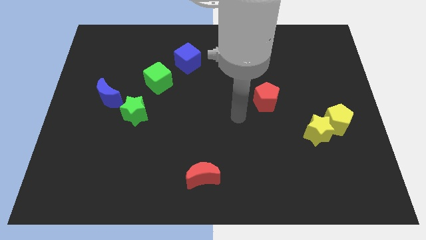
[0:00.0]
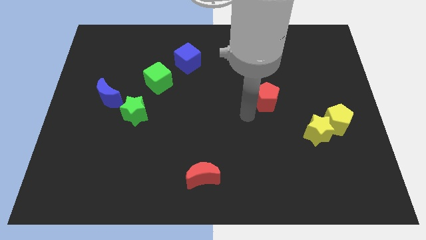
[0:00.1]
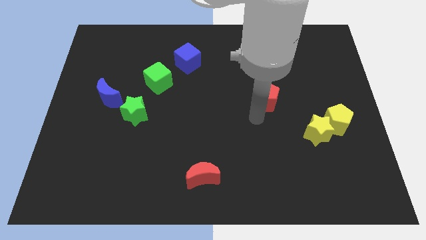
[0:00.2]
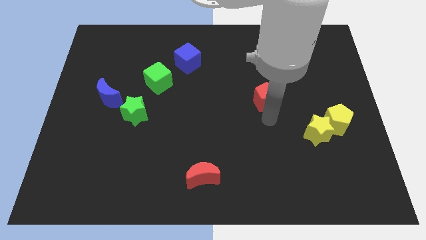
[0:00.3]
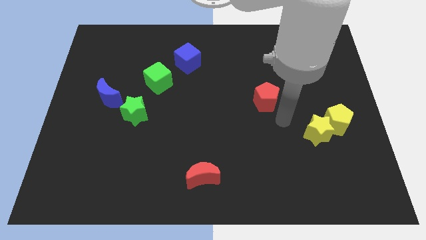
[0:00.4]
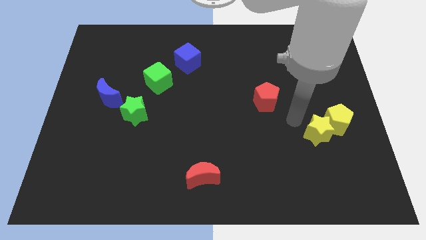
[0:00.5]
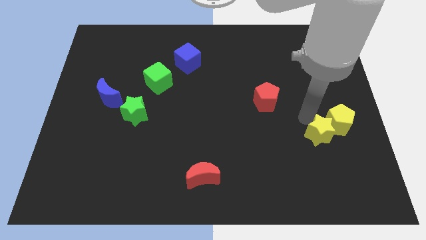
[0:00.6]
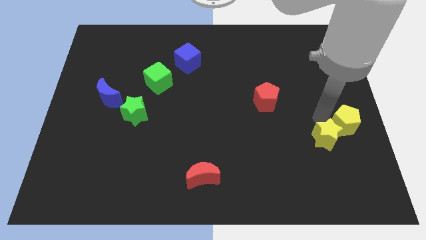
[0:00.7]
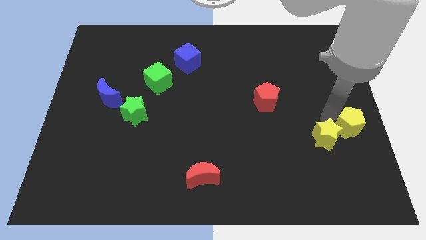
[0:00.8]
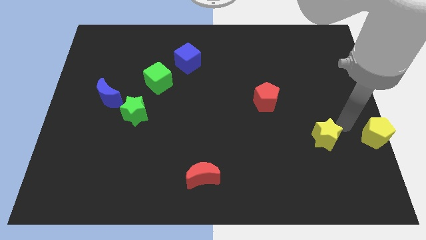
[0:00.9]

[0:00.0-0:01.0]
pull the yellow star apart from the yellow pentagon

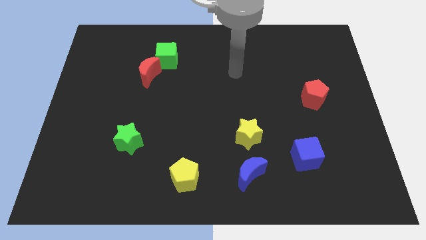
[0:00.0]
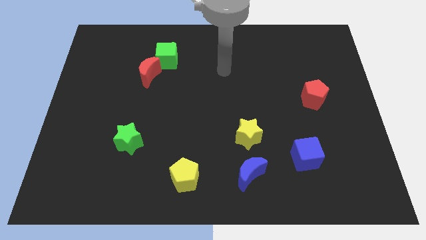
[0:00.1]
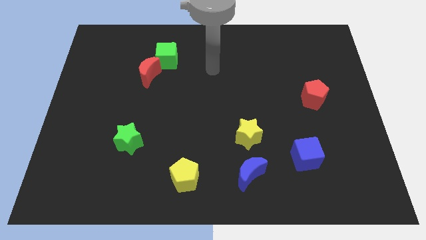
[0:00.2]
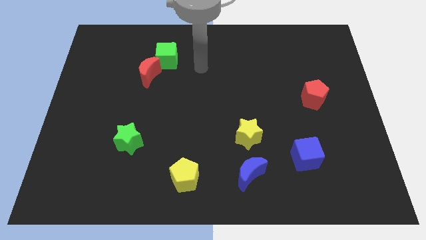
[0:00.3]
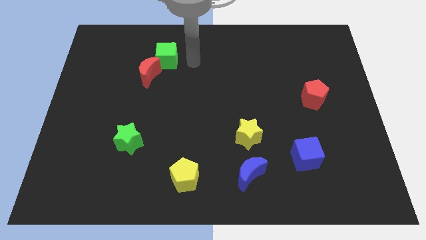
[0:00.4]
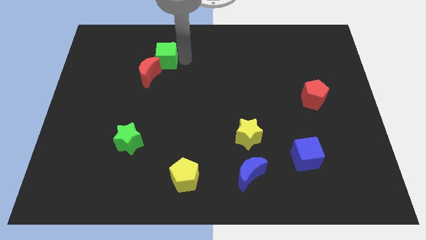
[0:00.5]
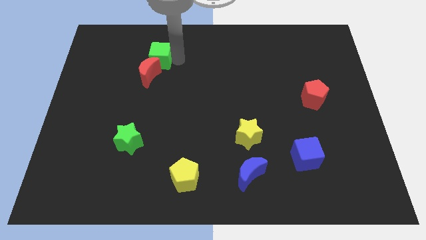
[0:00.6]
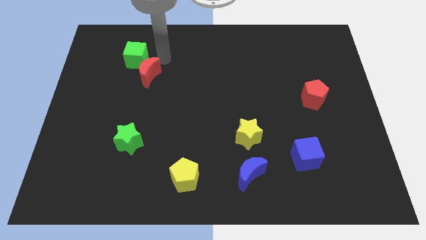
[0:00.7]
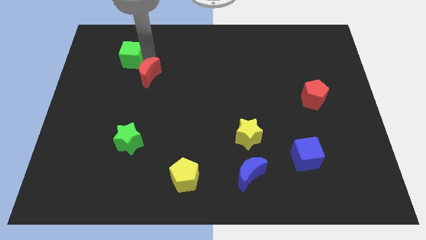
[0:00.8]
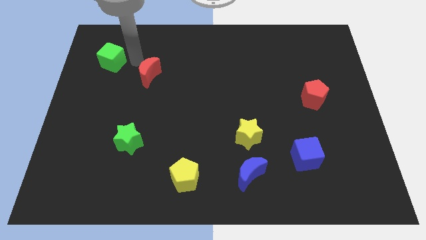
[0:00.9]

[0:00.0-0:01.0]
move the red moon away from the green cube

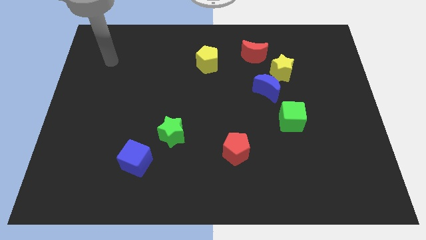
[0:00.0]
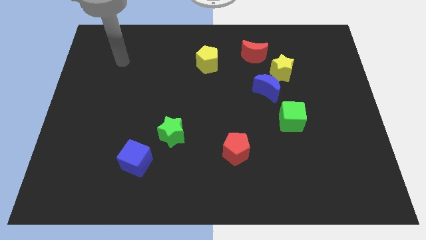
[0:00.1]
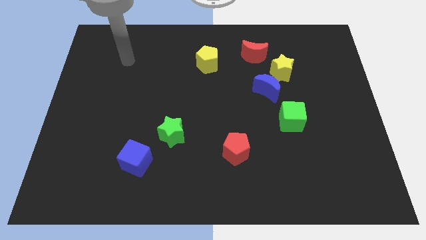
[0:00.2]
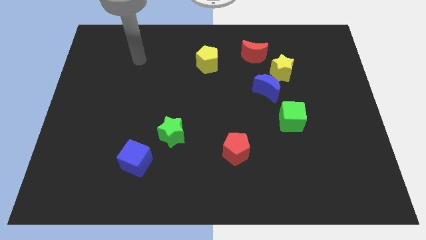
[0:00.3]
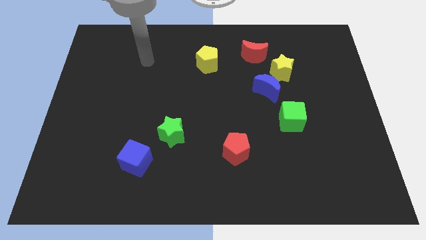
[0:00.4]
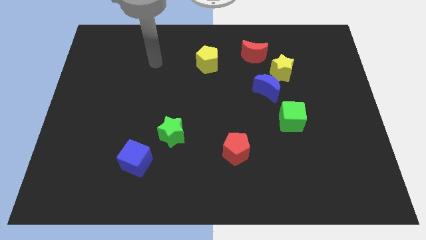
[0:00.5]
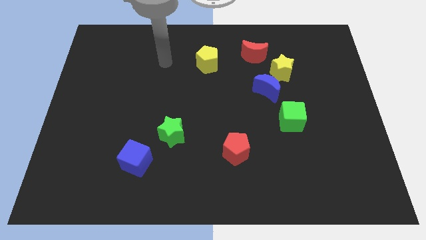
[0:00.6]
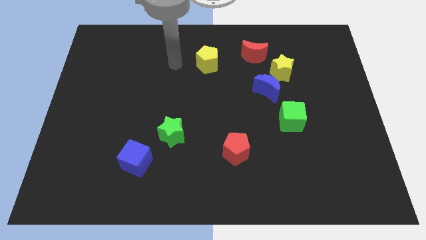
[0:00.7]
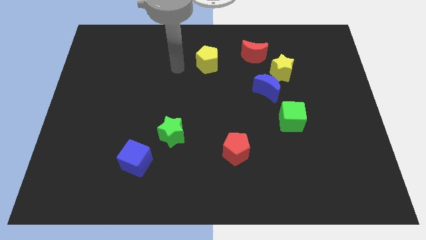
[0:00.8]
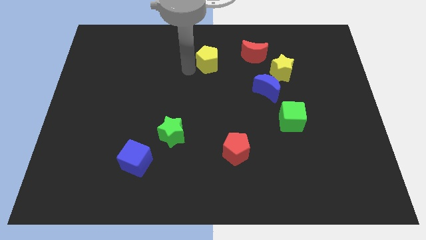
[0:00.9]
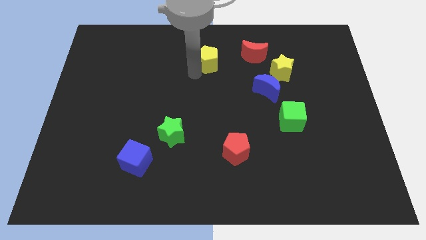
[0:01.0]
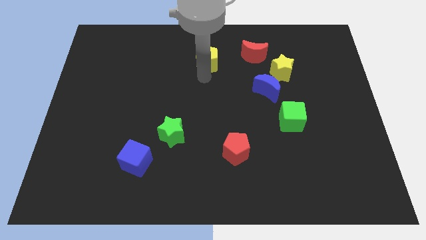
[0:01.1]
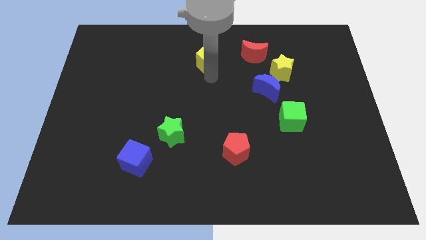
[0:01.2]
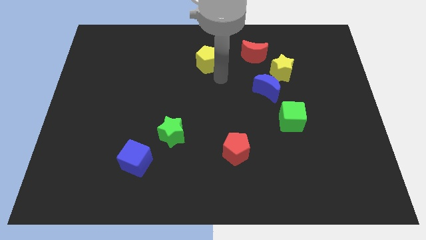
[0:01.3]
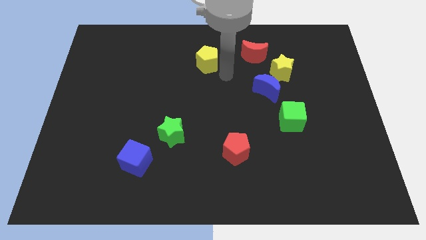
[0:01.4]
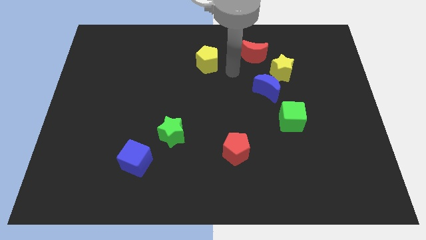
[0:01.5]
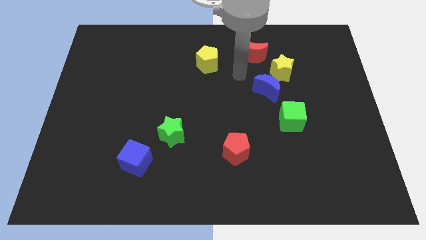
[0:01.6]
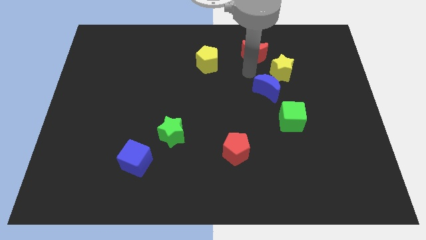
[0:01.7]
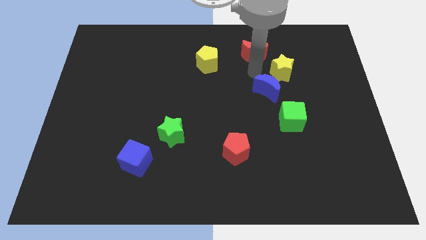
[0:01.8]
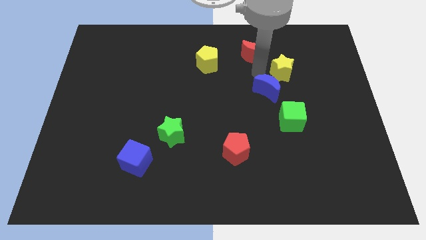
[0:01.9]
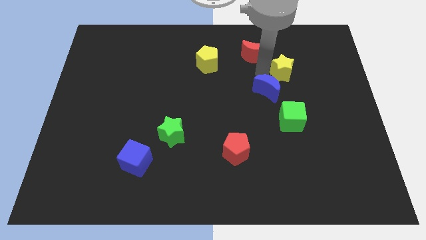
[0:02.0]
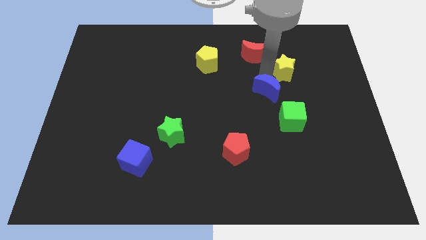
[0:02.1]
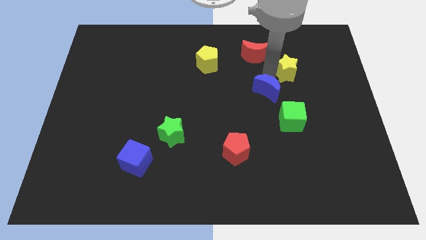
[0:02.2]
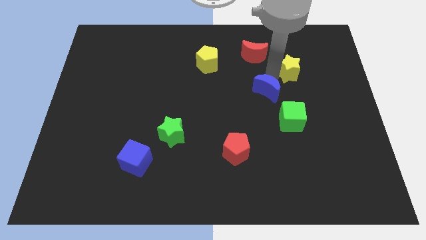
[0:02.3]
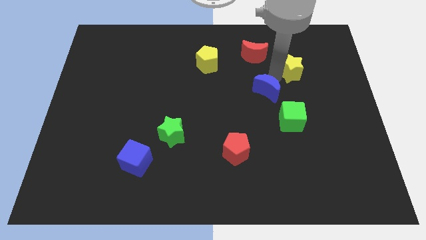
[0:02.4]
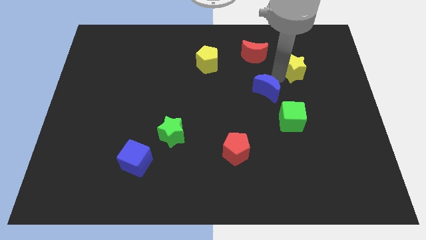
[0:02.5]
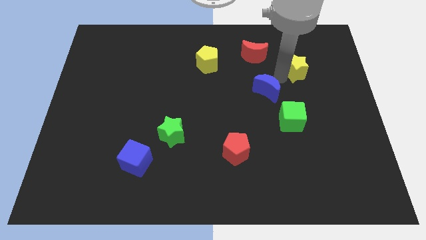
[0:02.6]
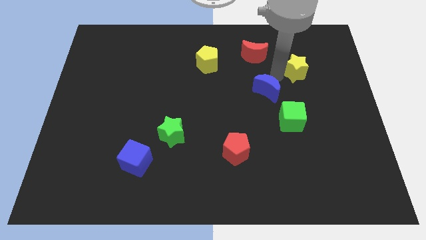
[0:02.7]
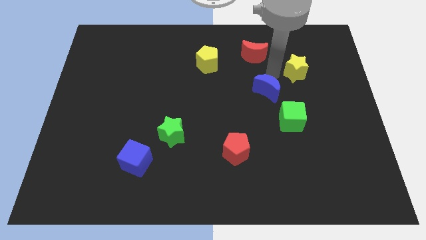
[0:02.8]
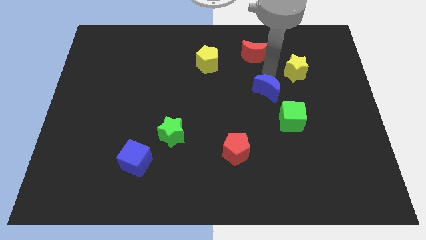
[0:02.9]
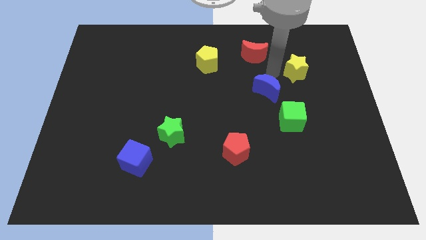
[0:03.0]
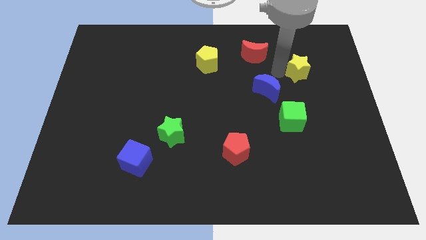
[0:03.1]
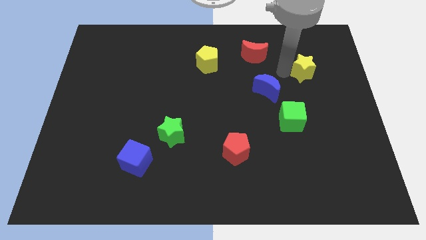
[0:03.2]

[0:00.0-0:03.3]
separate the yellow star from the blue moon and red moon

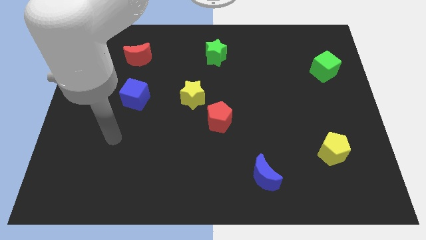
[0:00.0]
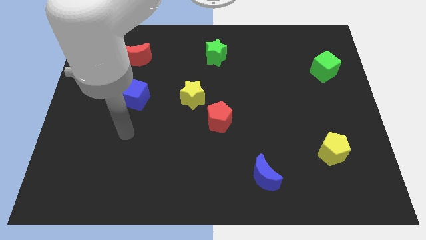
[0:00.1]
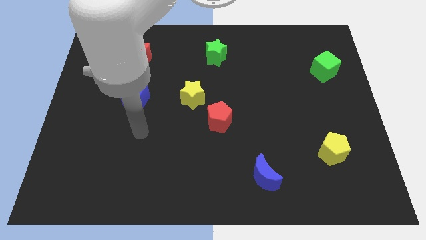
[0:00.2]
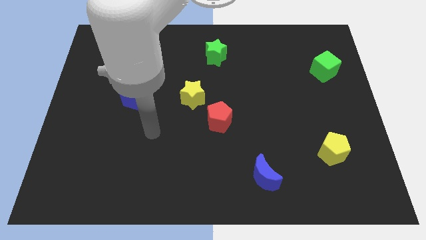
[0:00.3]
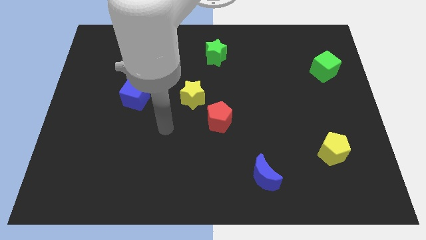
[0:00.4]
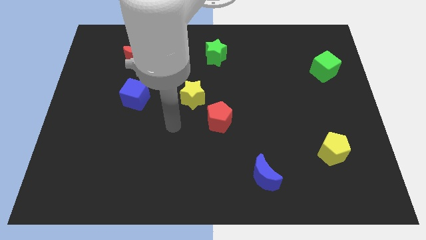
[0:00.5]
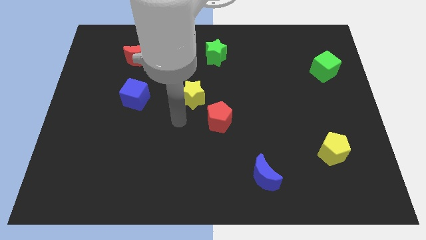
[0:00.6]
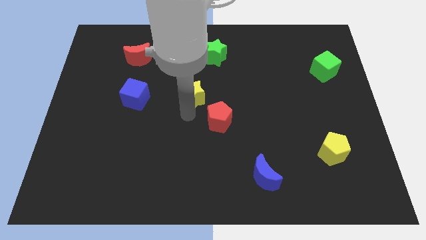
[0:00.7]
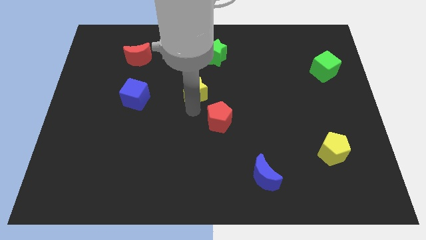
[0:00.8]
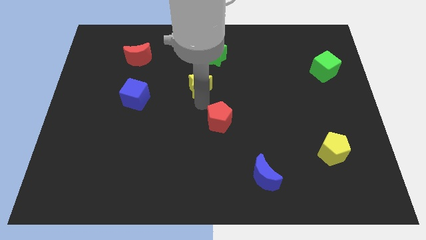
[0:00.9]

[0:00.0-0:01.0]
pull the red pentagon apart from the yellow star

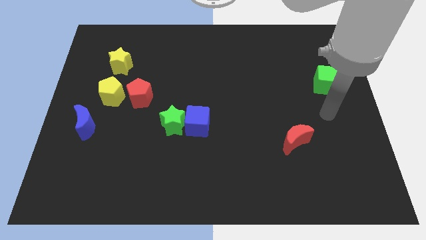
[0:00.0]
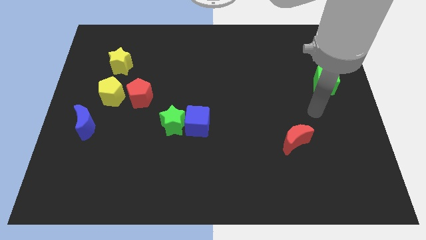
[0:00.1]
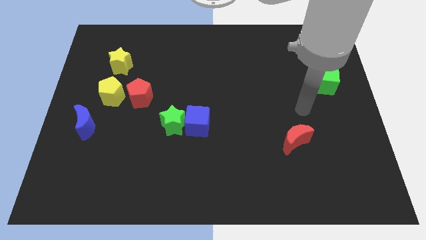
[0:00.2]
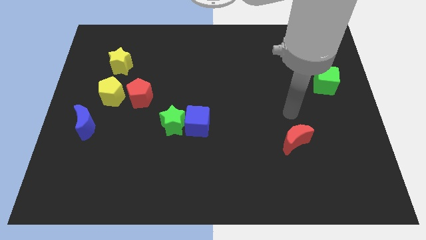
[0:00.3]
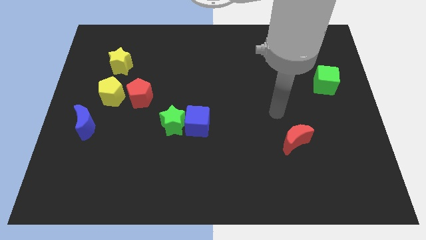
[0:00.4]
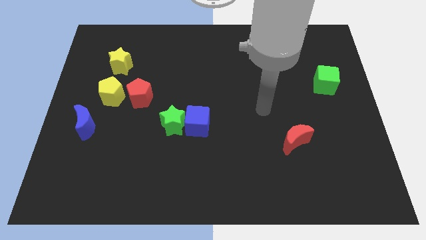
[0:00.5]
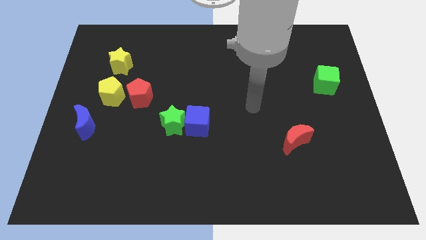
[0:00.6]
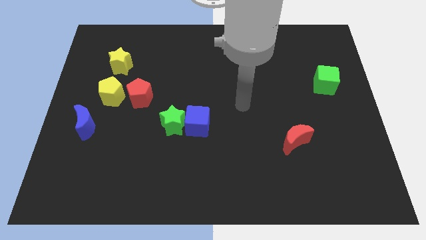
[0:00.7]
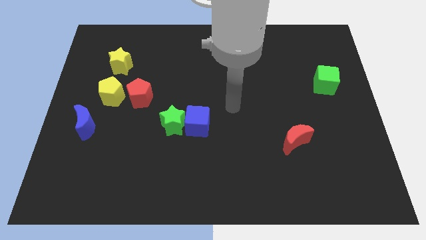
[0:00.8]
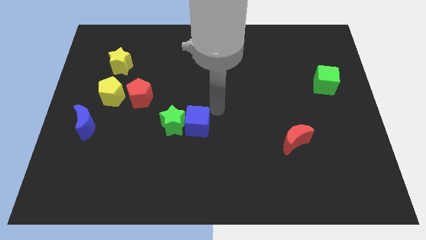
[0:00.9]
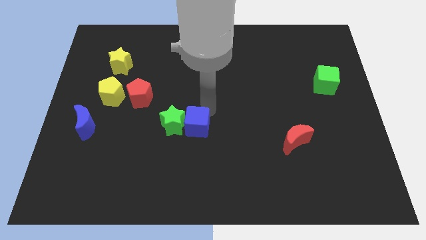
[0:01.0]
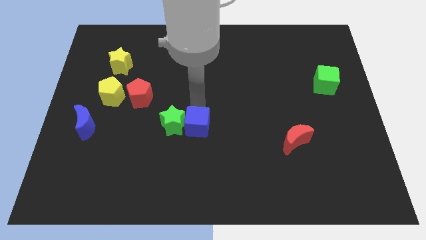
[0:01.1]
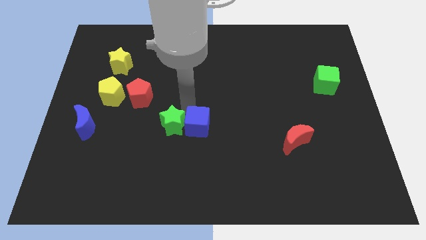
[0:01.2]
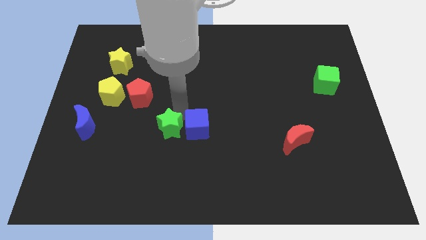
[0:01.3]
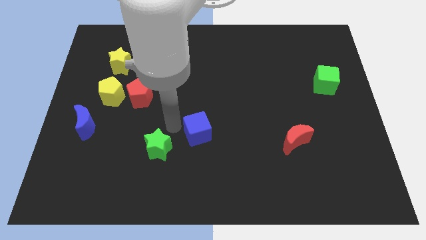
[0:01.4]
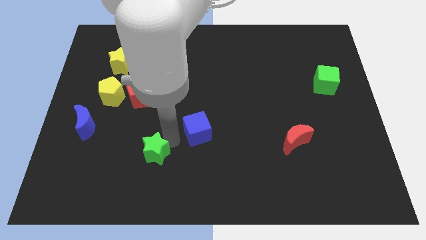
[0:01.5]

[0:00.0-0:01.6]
pull the blue cube apart from the green star

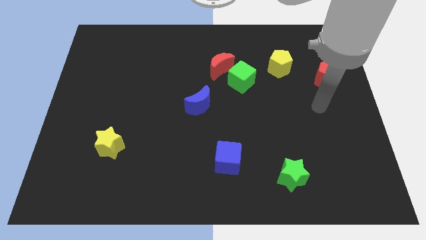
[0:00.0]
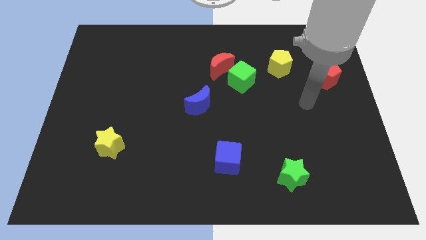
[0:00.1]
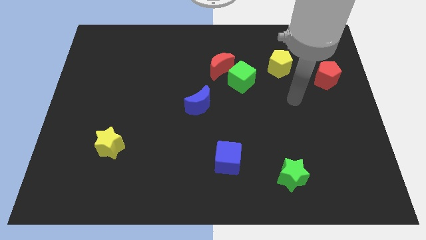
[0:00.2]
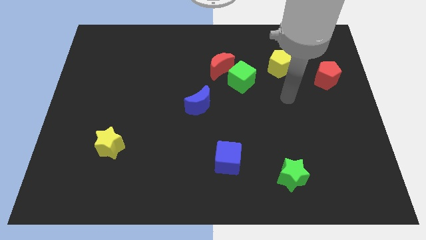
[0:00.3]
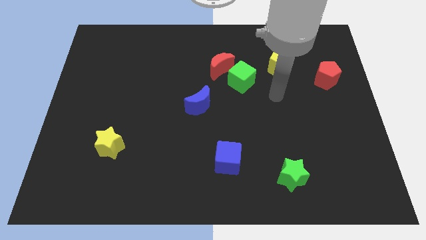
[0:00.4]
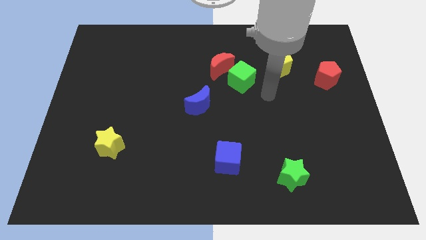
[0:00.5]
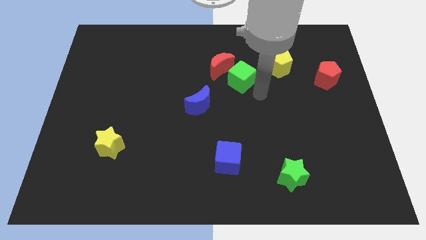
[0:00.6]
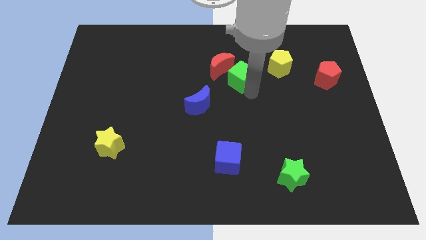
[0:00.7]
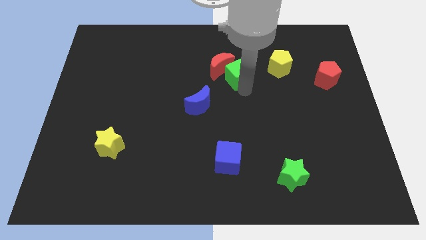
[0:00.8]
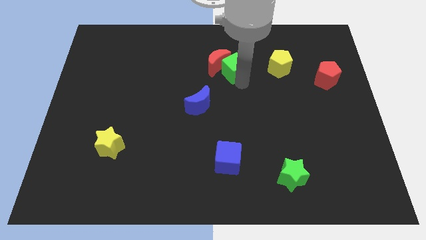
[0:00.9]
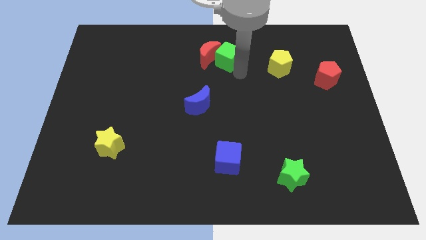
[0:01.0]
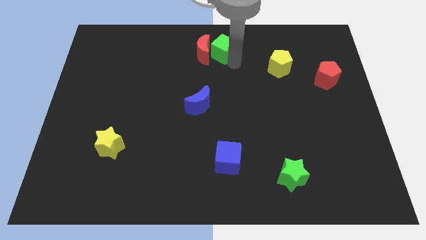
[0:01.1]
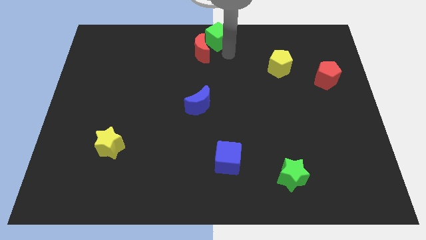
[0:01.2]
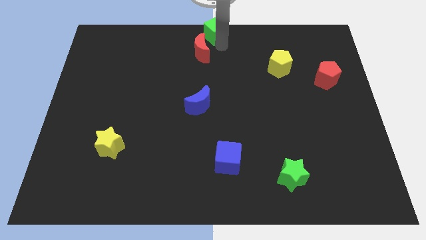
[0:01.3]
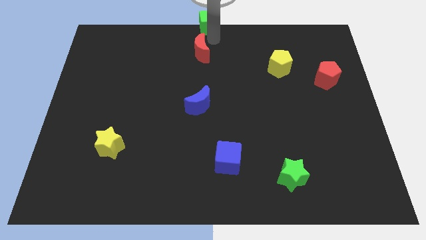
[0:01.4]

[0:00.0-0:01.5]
separate the red moon from the green cube
